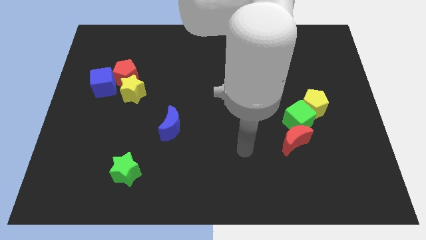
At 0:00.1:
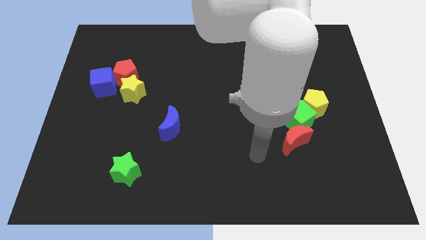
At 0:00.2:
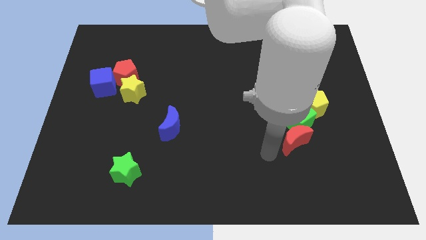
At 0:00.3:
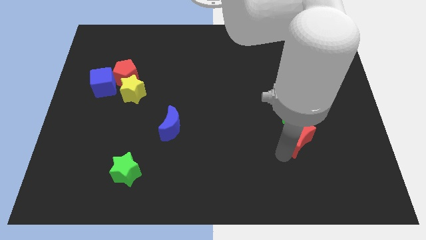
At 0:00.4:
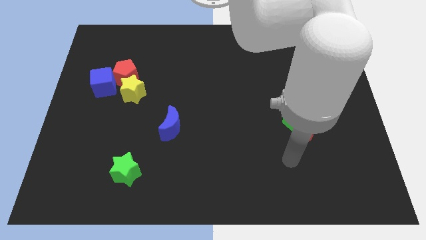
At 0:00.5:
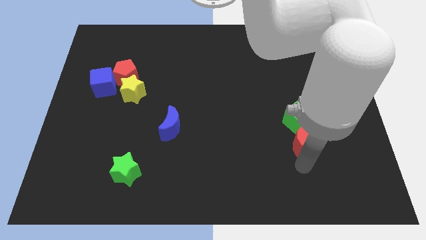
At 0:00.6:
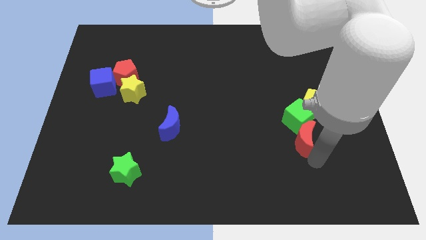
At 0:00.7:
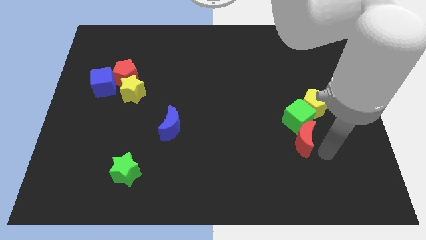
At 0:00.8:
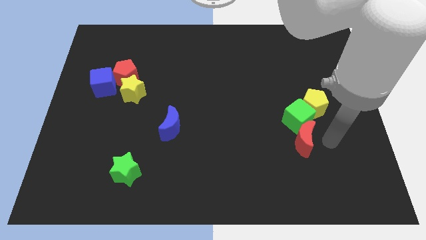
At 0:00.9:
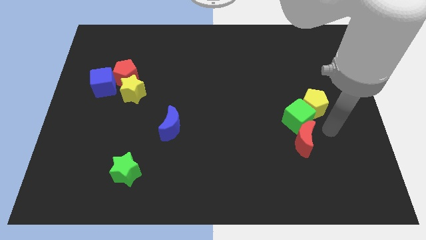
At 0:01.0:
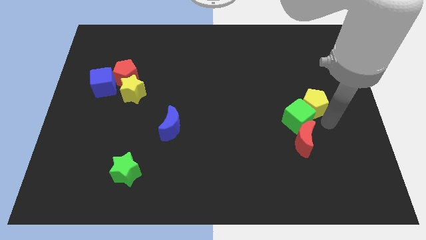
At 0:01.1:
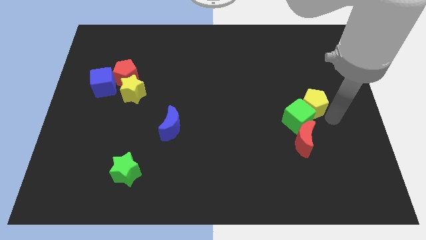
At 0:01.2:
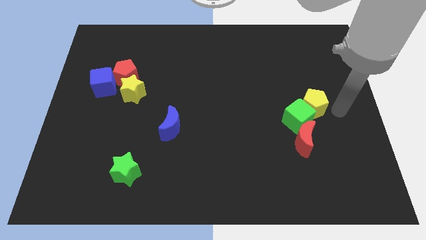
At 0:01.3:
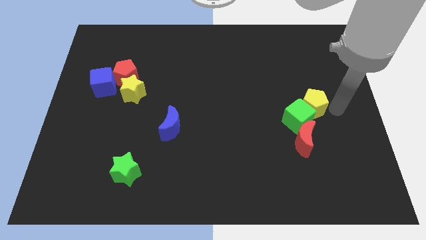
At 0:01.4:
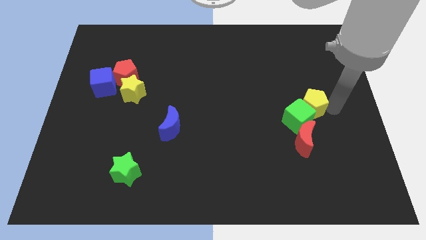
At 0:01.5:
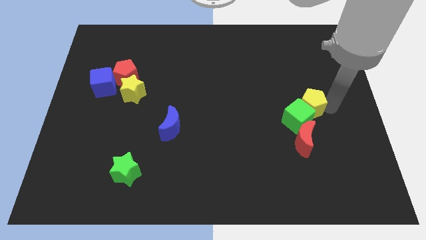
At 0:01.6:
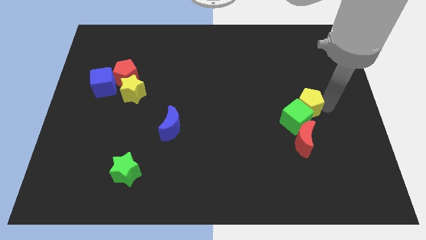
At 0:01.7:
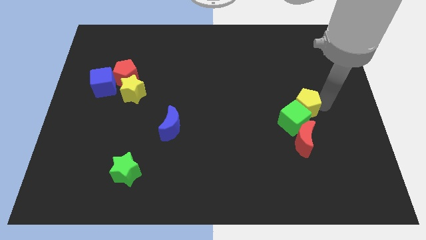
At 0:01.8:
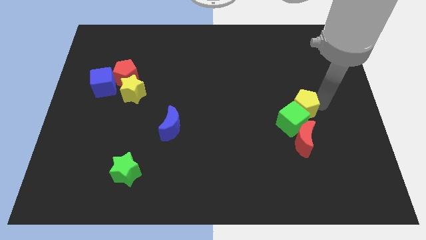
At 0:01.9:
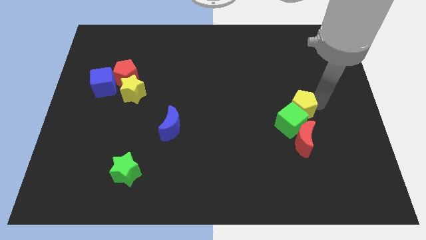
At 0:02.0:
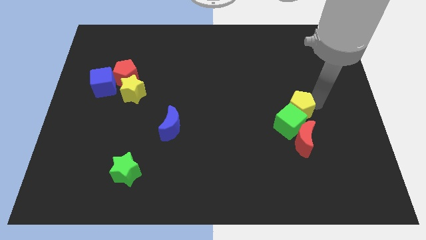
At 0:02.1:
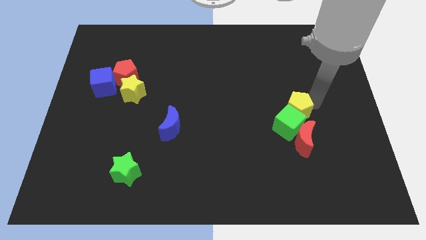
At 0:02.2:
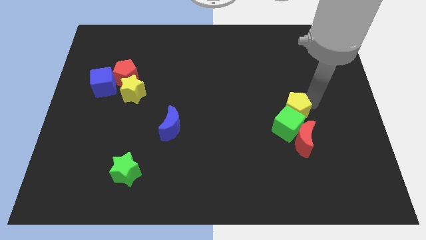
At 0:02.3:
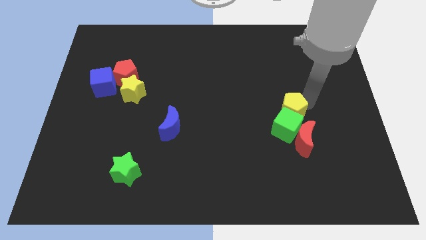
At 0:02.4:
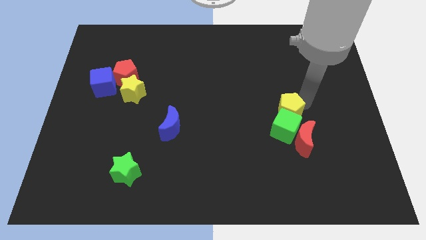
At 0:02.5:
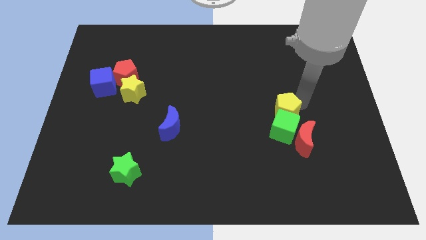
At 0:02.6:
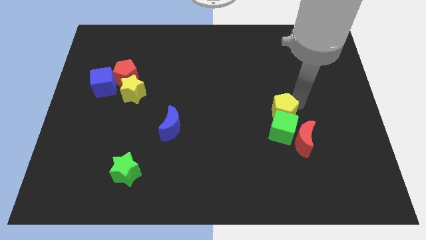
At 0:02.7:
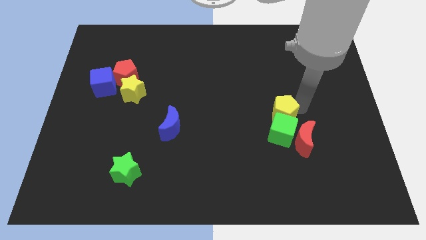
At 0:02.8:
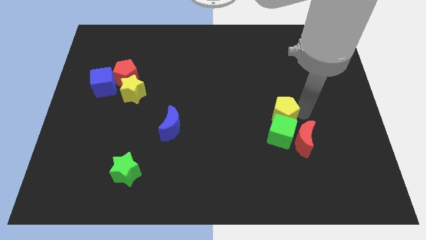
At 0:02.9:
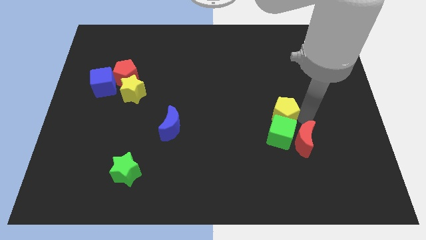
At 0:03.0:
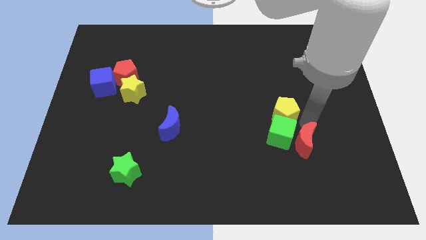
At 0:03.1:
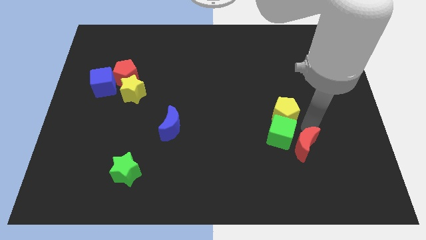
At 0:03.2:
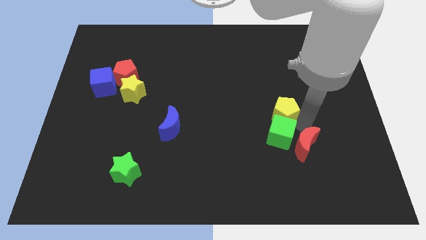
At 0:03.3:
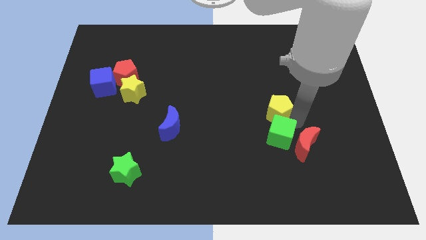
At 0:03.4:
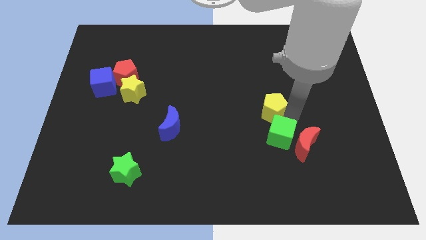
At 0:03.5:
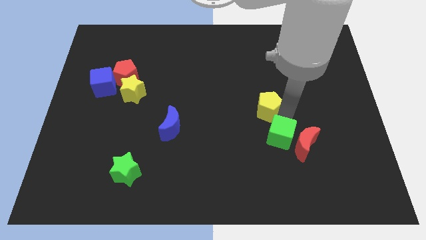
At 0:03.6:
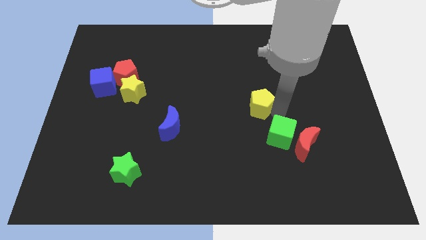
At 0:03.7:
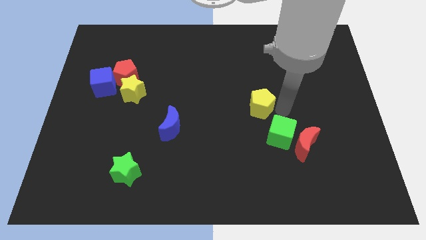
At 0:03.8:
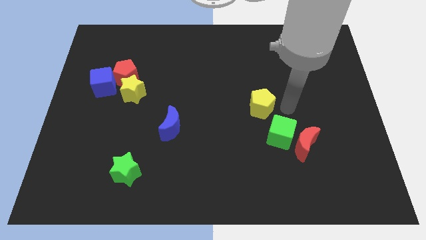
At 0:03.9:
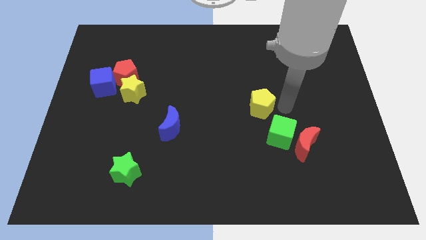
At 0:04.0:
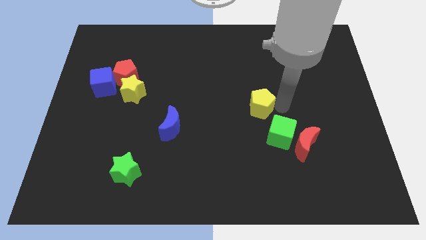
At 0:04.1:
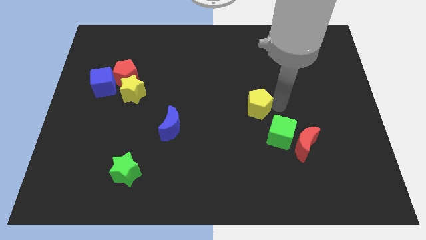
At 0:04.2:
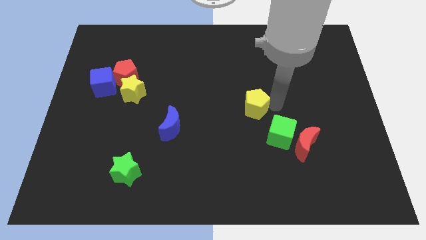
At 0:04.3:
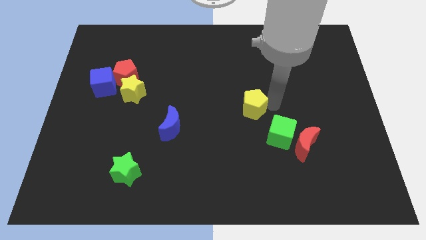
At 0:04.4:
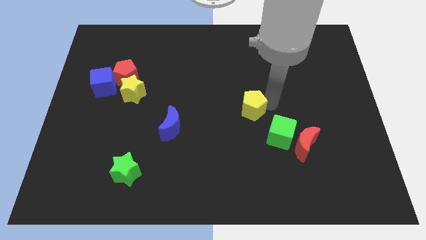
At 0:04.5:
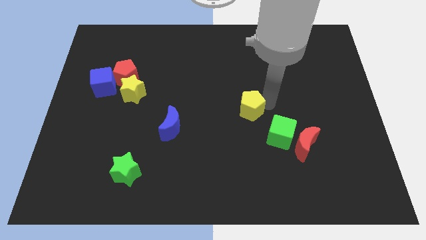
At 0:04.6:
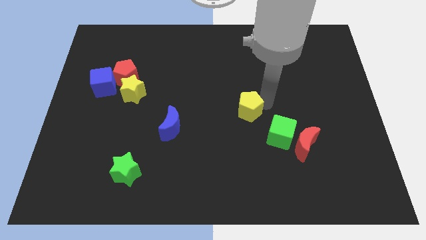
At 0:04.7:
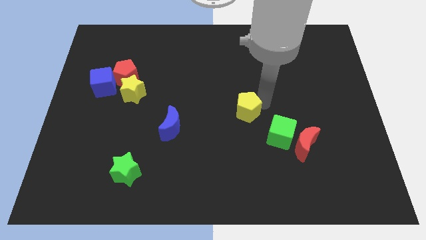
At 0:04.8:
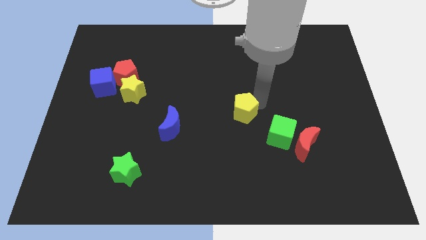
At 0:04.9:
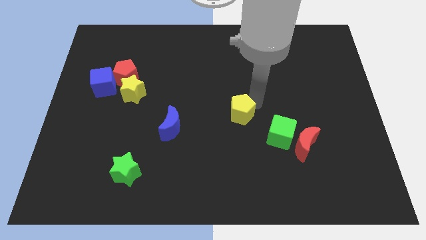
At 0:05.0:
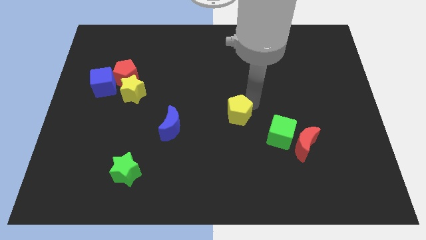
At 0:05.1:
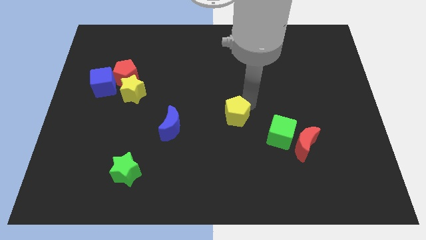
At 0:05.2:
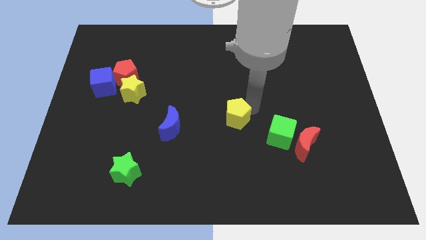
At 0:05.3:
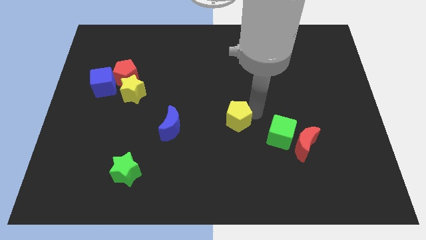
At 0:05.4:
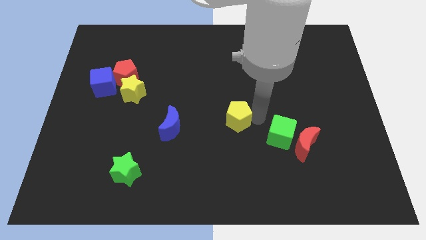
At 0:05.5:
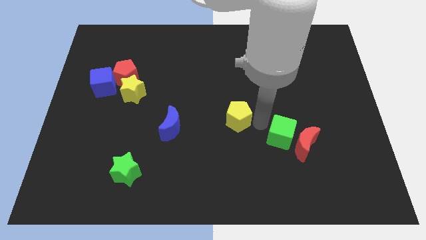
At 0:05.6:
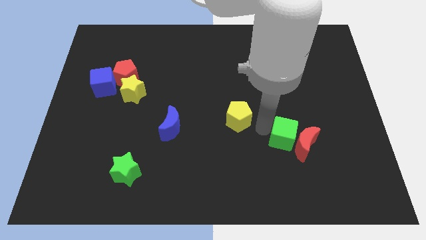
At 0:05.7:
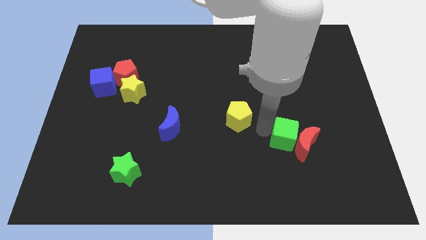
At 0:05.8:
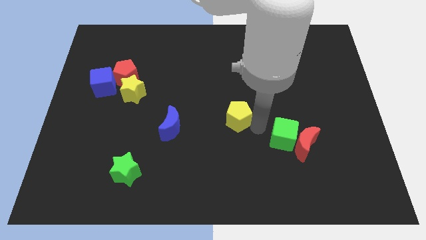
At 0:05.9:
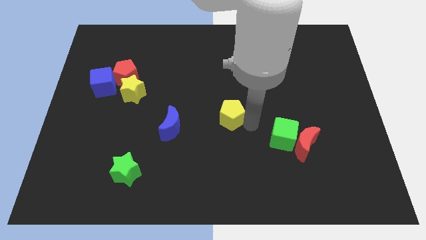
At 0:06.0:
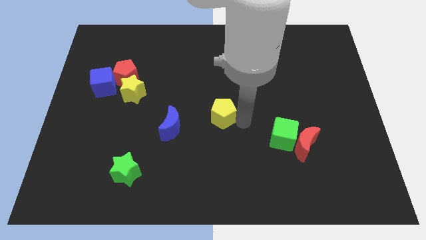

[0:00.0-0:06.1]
slide the yellow pentagon to the left

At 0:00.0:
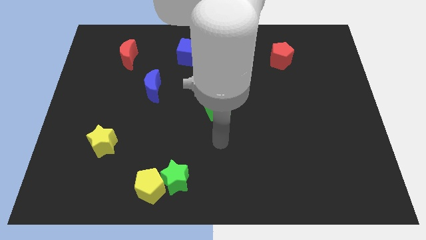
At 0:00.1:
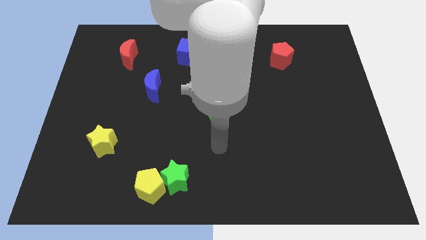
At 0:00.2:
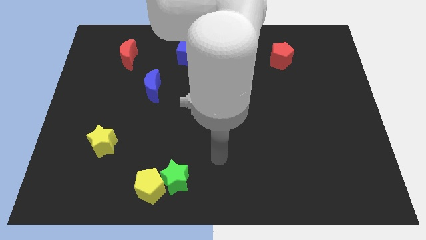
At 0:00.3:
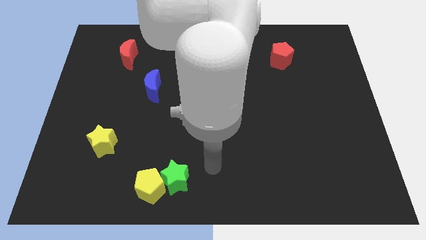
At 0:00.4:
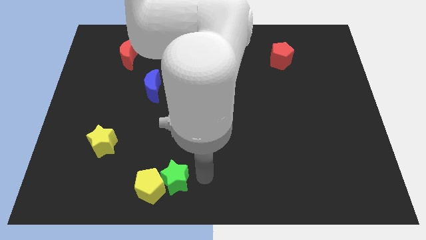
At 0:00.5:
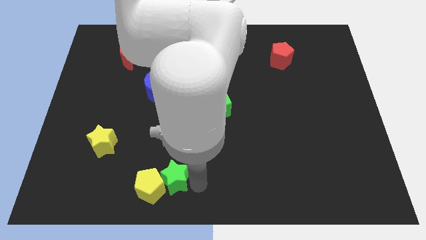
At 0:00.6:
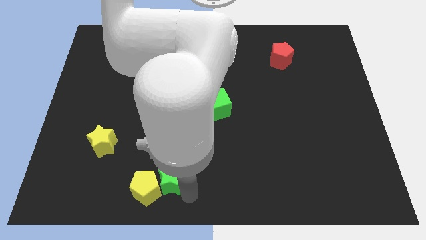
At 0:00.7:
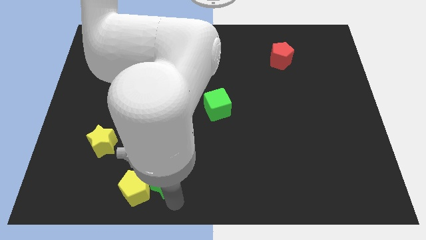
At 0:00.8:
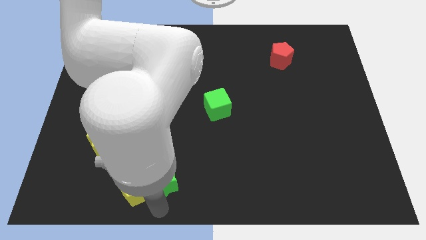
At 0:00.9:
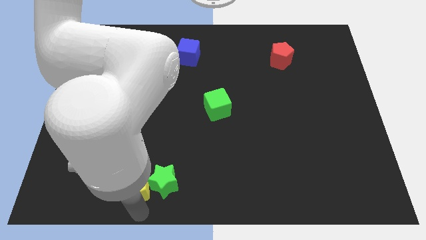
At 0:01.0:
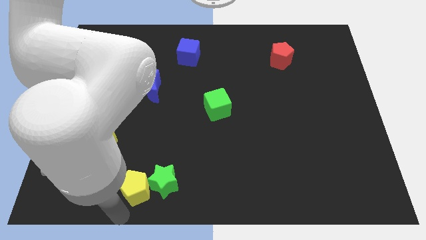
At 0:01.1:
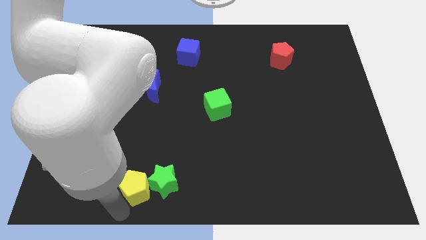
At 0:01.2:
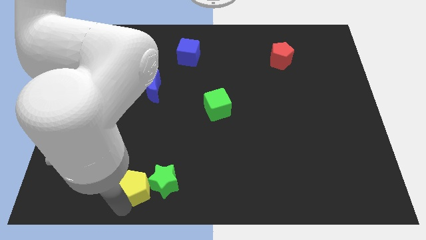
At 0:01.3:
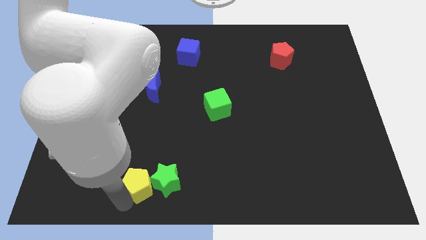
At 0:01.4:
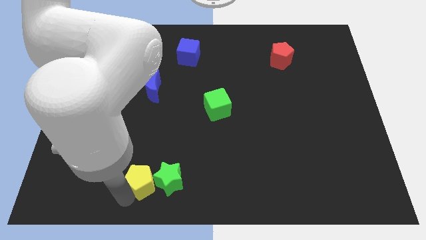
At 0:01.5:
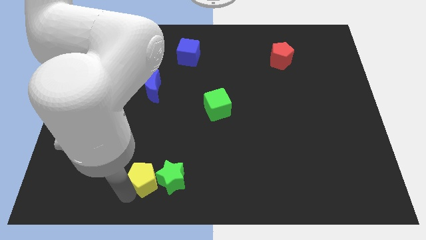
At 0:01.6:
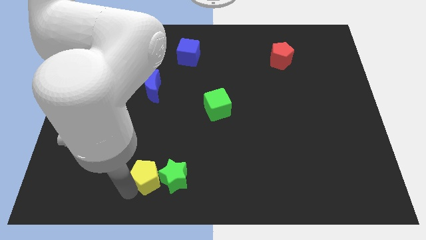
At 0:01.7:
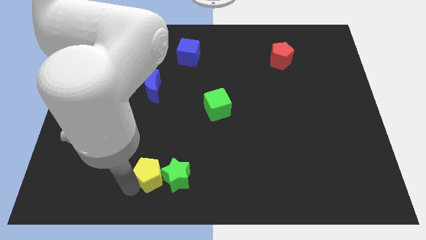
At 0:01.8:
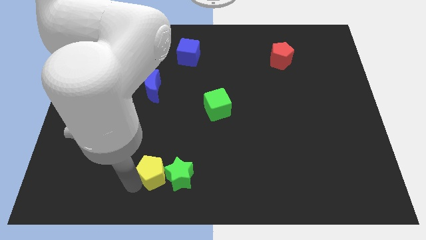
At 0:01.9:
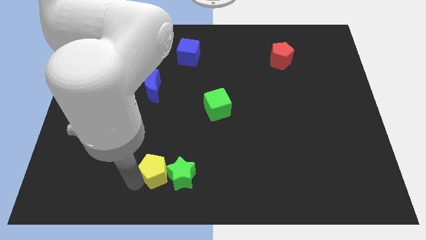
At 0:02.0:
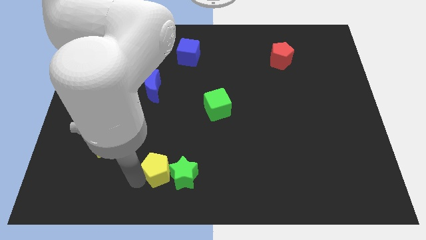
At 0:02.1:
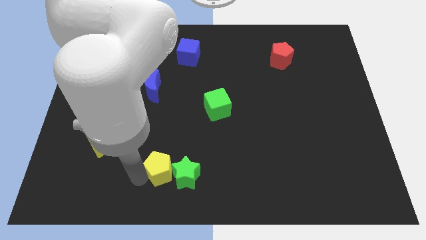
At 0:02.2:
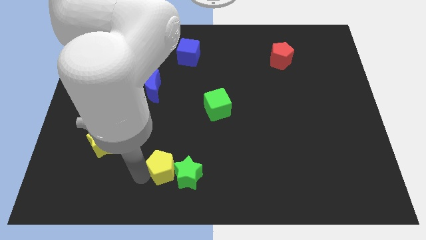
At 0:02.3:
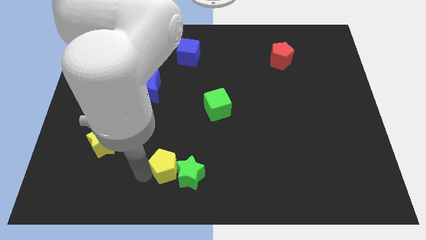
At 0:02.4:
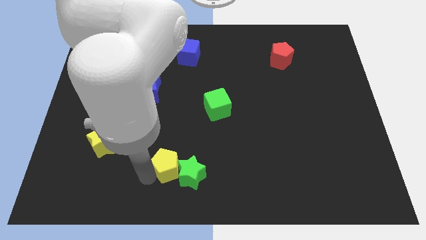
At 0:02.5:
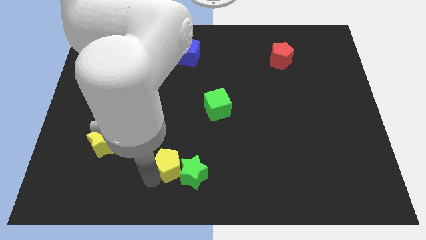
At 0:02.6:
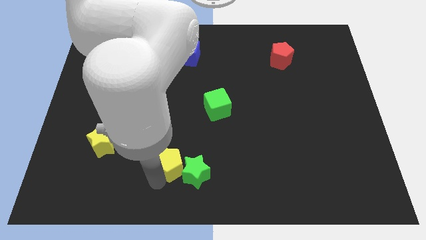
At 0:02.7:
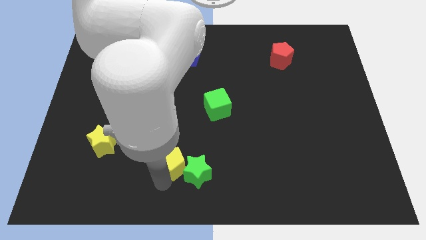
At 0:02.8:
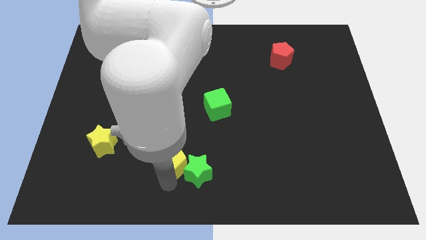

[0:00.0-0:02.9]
slide the yellow pentagon somewhat upwards and right
